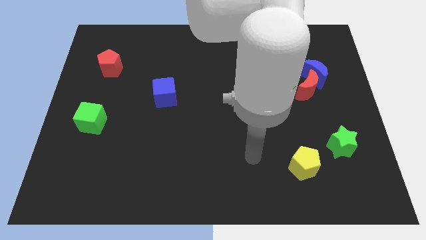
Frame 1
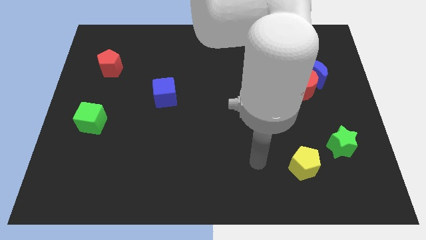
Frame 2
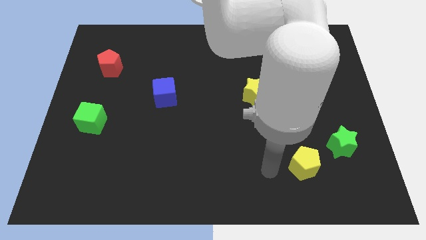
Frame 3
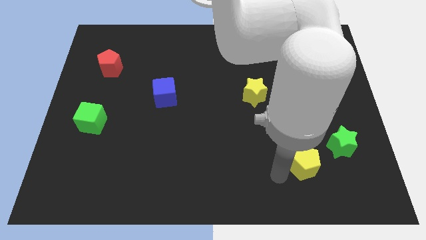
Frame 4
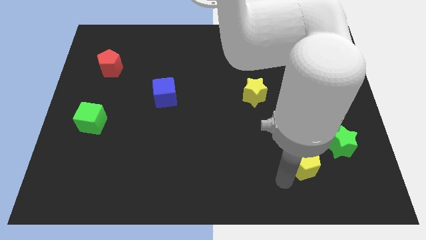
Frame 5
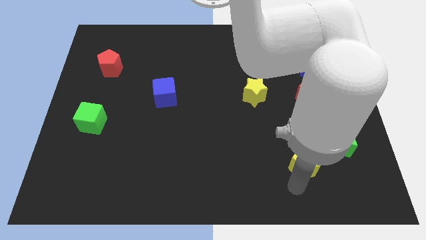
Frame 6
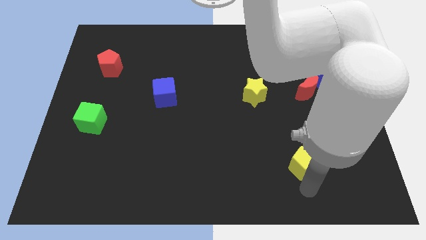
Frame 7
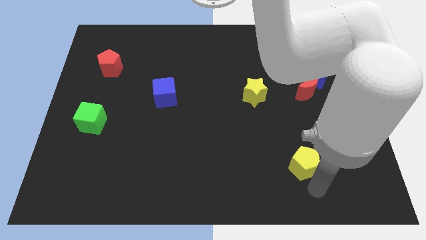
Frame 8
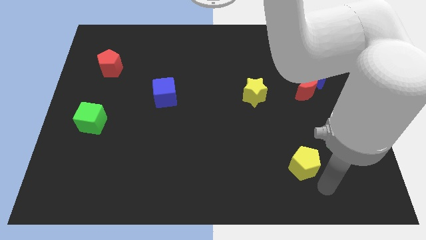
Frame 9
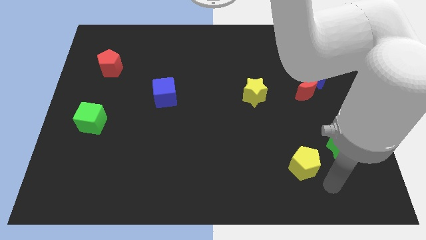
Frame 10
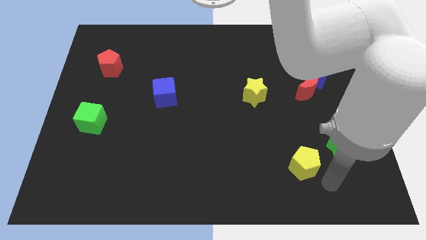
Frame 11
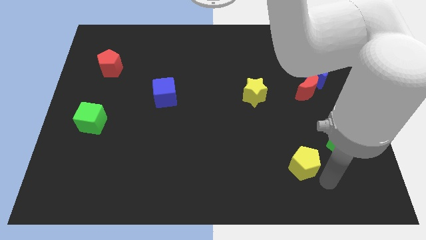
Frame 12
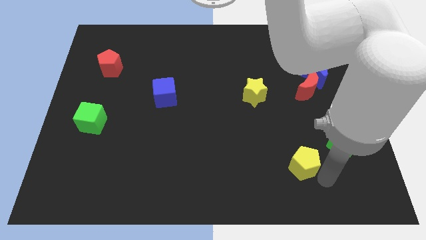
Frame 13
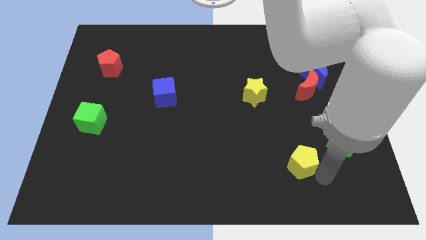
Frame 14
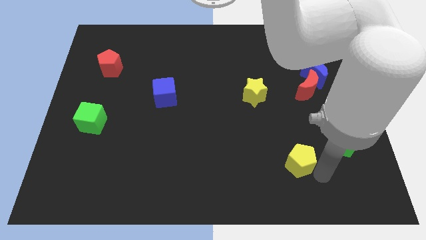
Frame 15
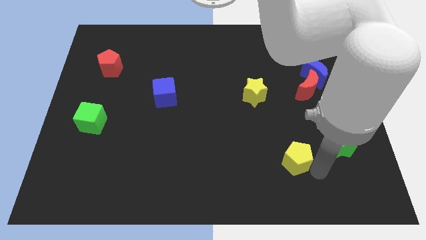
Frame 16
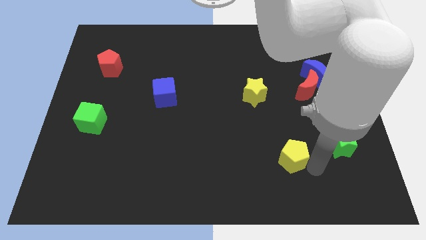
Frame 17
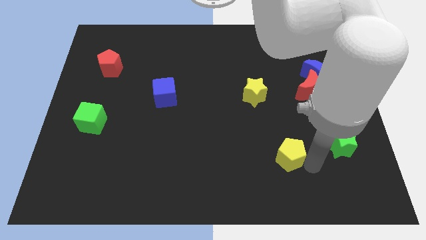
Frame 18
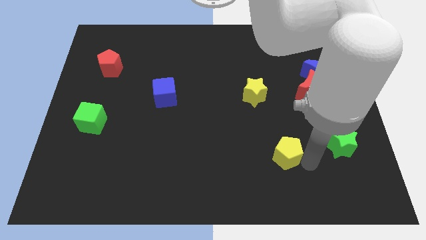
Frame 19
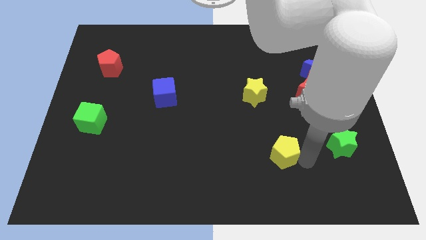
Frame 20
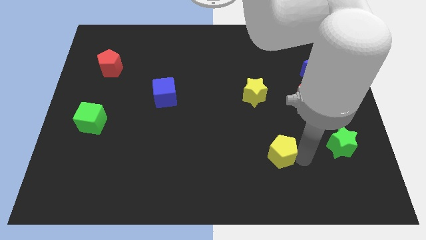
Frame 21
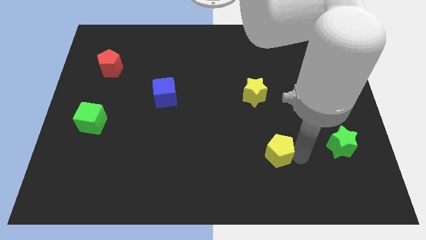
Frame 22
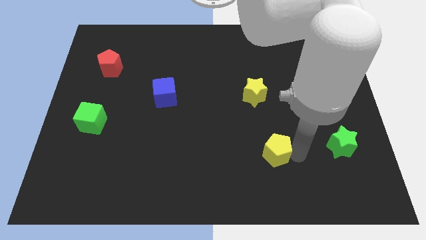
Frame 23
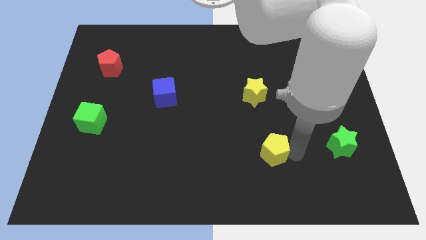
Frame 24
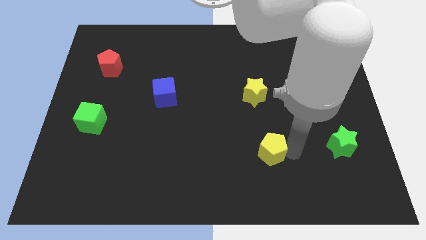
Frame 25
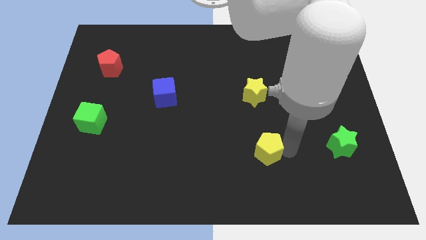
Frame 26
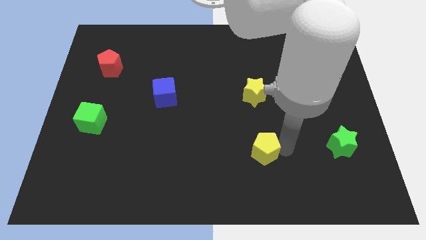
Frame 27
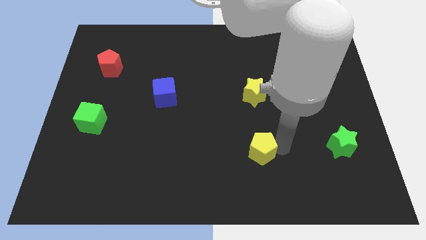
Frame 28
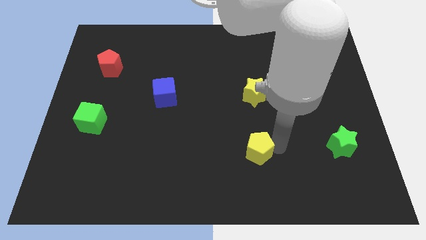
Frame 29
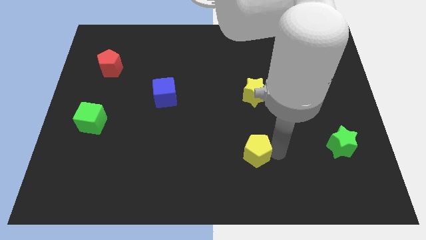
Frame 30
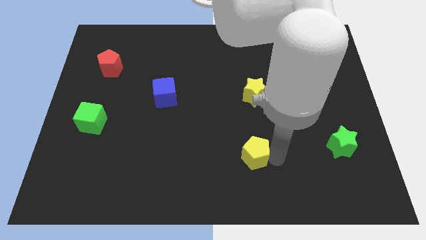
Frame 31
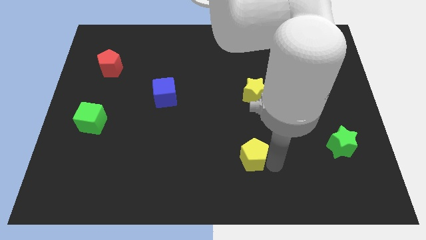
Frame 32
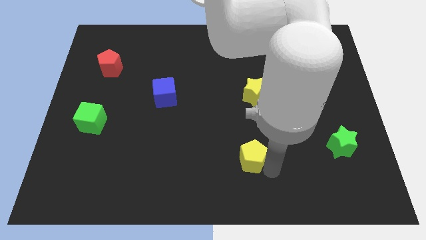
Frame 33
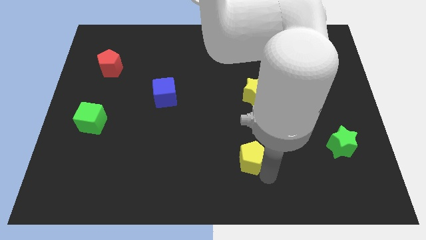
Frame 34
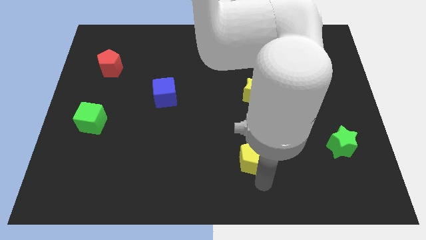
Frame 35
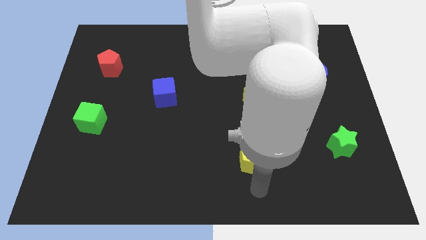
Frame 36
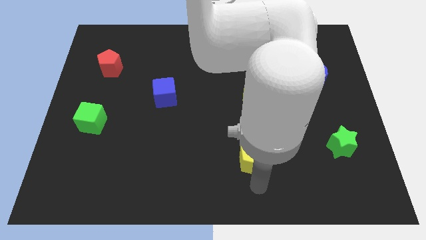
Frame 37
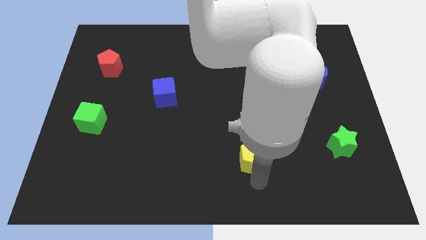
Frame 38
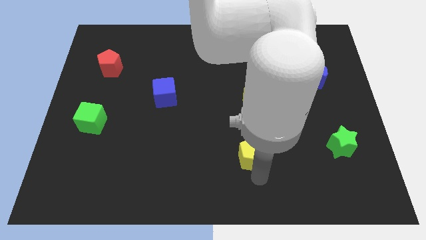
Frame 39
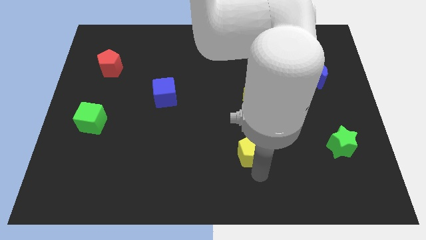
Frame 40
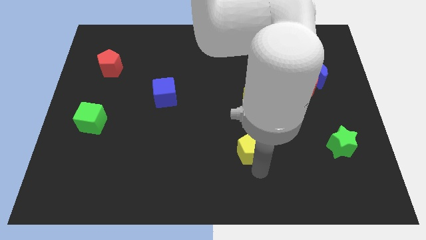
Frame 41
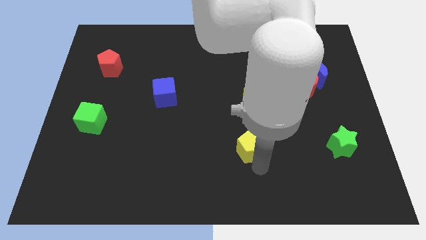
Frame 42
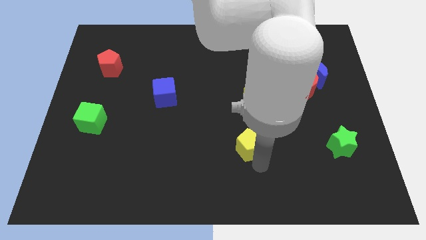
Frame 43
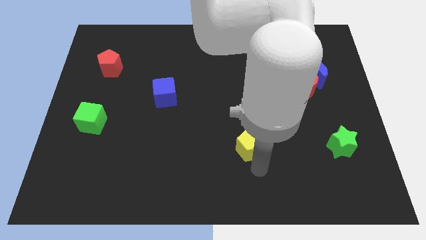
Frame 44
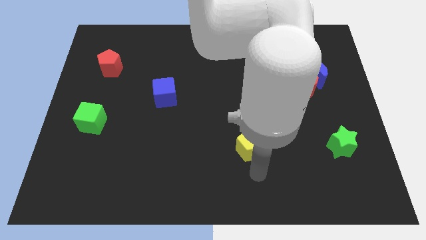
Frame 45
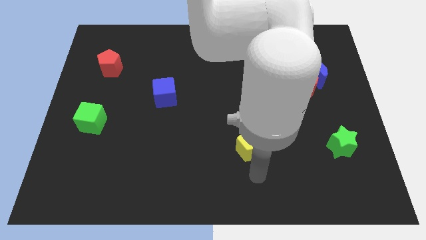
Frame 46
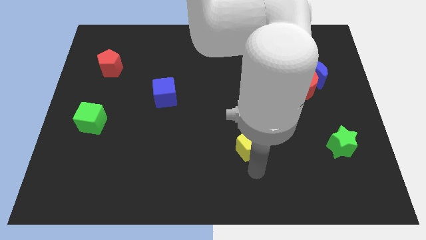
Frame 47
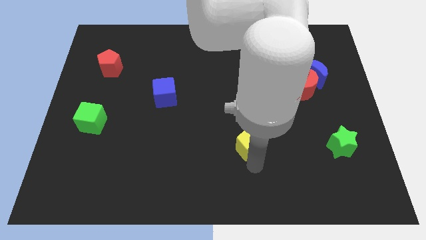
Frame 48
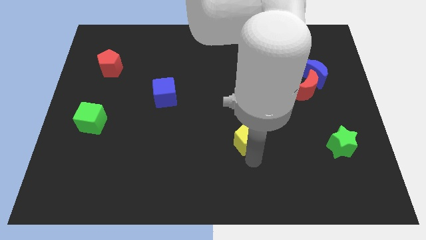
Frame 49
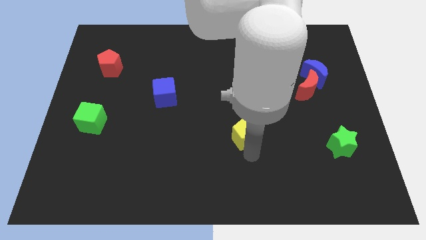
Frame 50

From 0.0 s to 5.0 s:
push the yellow pentagon to the middle of the board

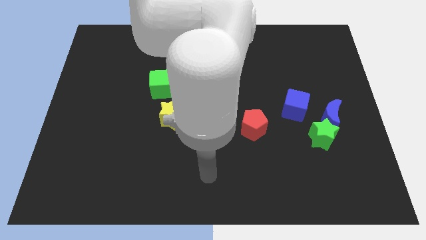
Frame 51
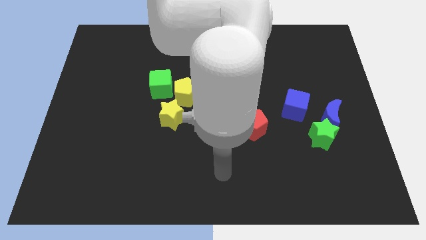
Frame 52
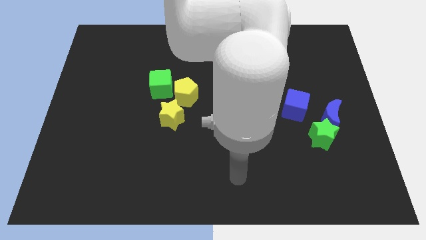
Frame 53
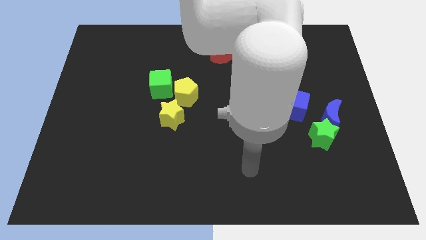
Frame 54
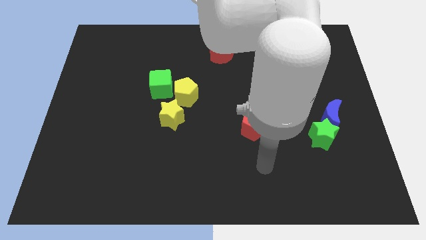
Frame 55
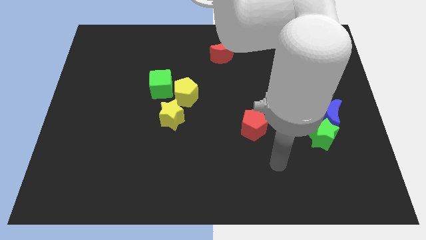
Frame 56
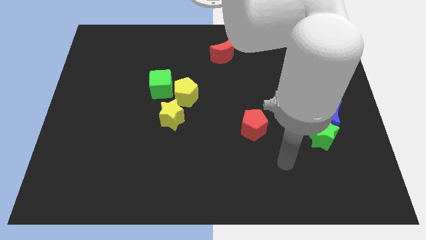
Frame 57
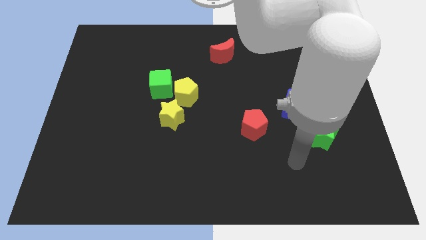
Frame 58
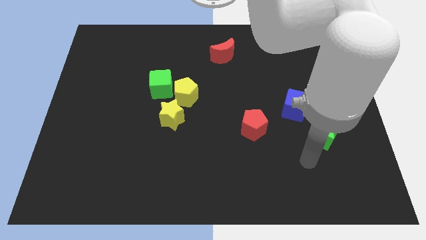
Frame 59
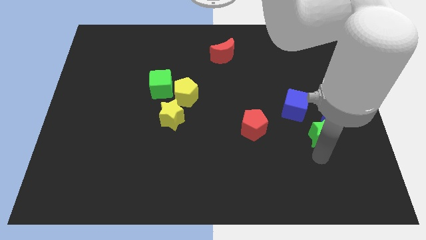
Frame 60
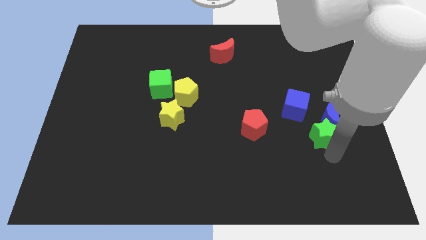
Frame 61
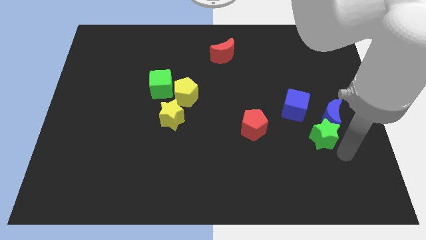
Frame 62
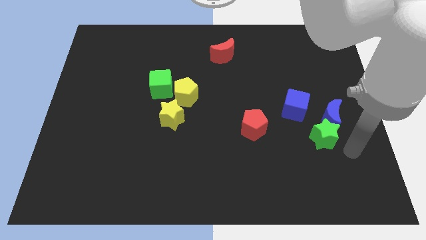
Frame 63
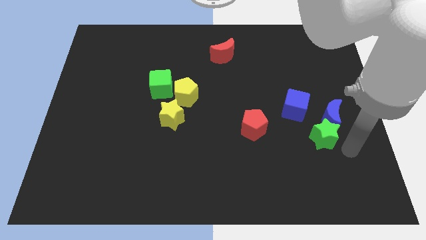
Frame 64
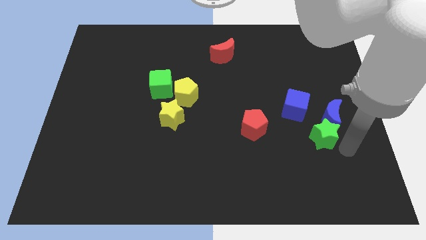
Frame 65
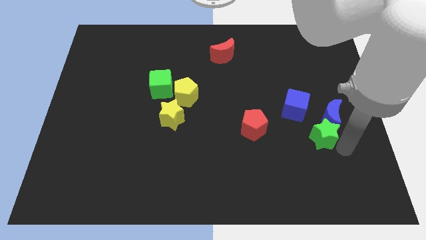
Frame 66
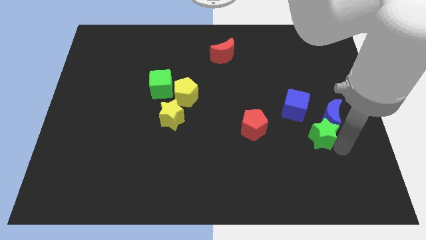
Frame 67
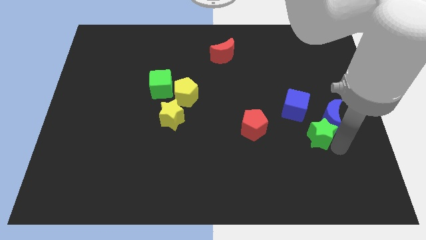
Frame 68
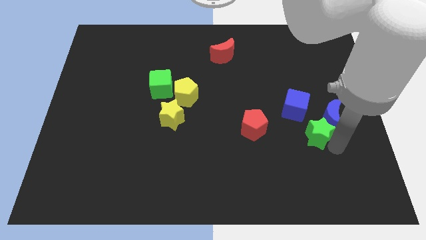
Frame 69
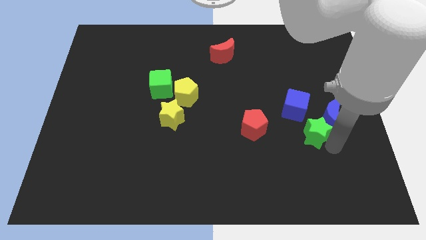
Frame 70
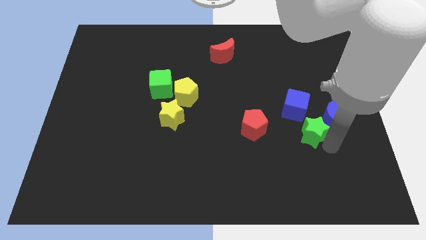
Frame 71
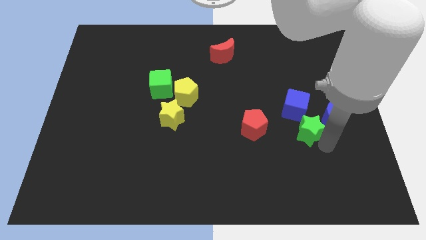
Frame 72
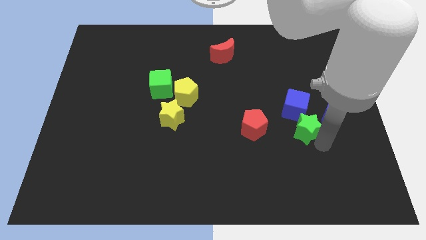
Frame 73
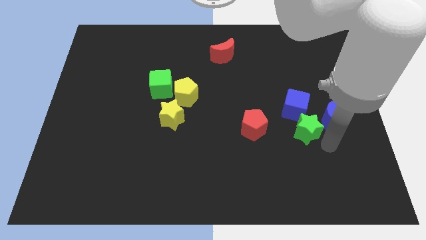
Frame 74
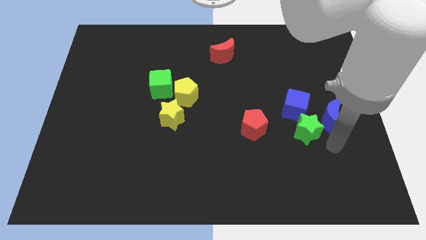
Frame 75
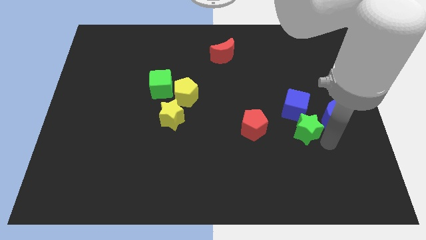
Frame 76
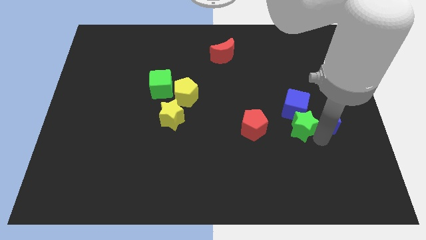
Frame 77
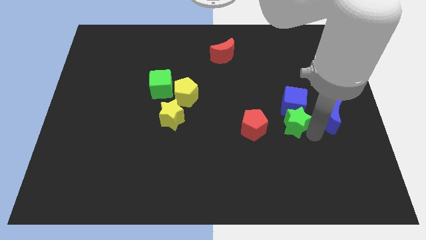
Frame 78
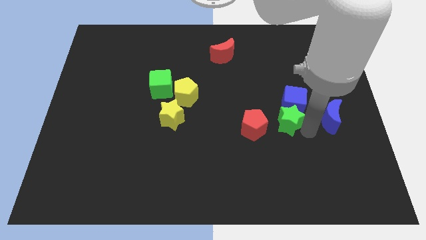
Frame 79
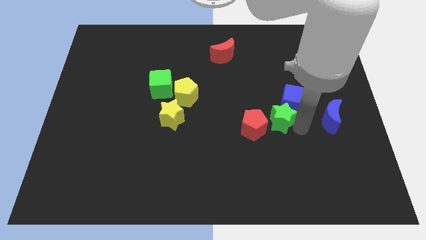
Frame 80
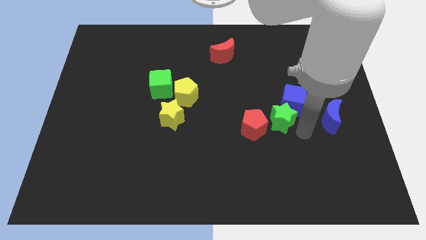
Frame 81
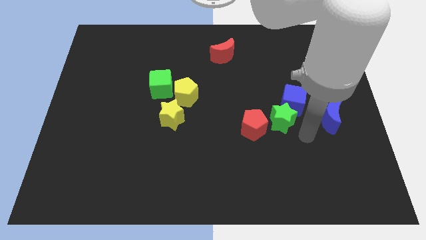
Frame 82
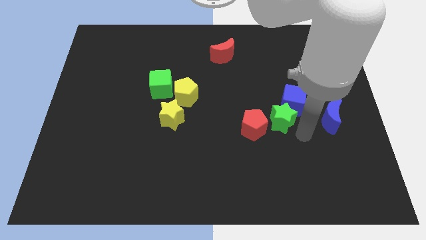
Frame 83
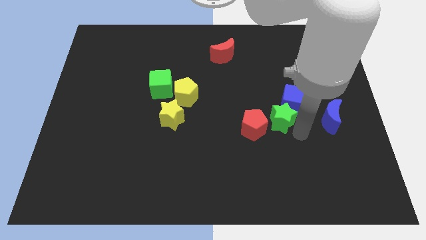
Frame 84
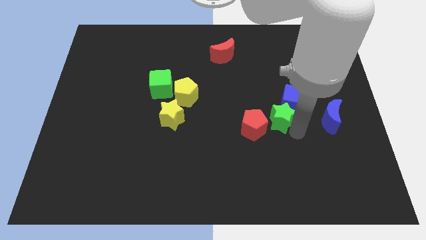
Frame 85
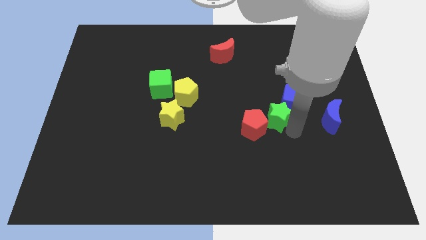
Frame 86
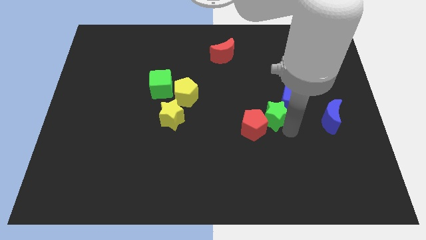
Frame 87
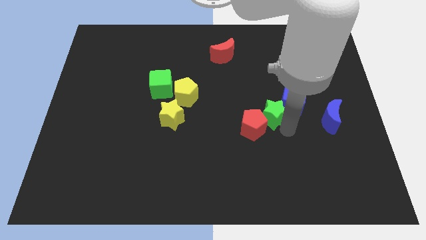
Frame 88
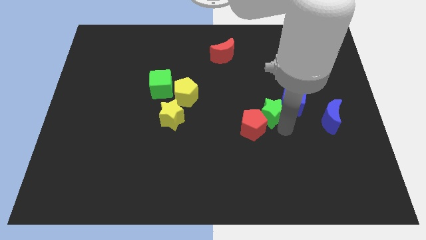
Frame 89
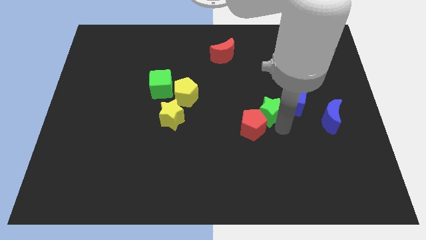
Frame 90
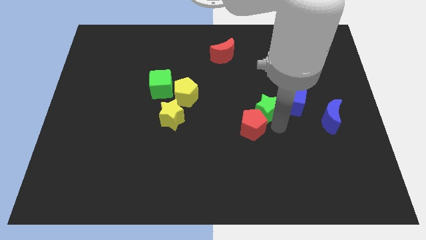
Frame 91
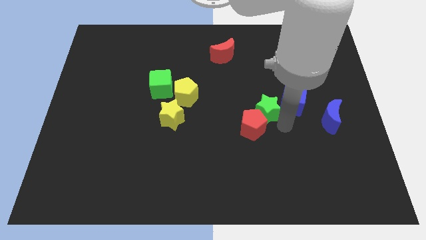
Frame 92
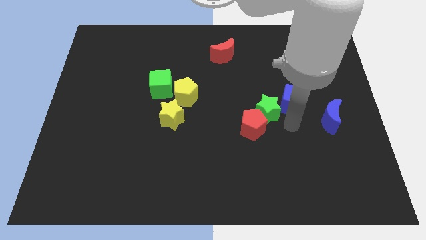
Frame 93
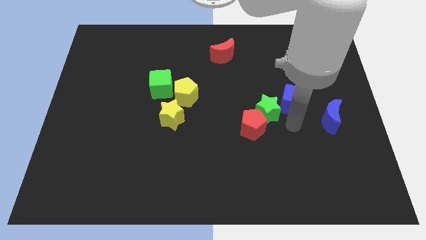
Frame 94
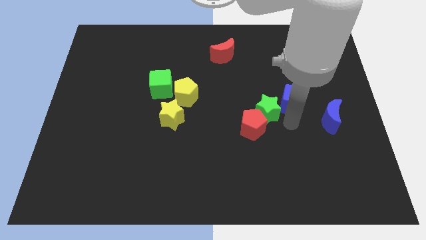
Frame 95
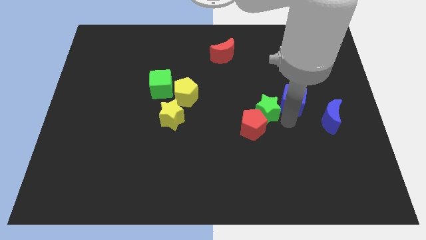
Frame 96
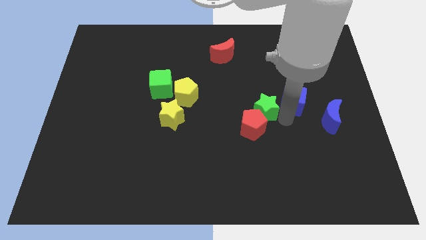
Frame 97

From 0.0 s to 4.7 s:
put the green star to the middle
